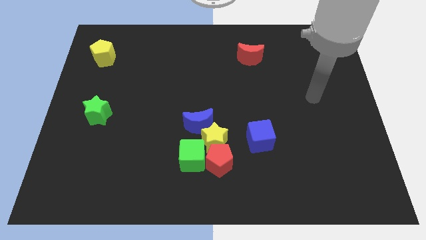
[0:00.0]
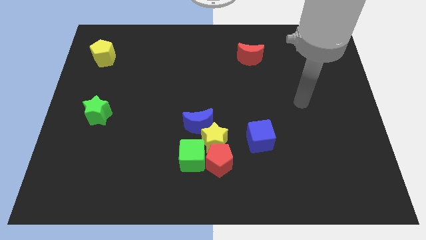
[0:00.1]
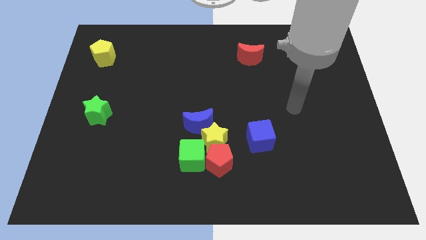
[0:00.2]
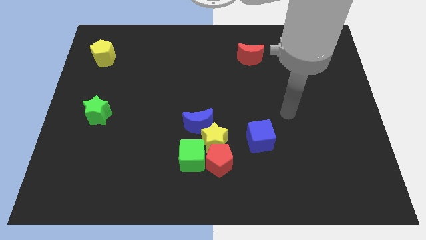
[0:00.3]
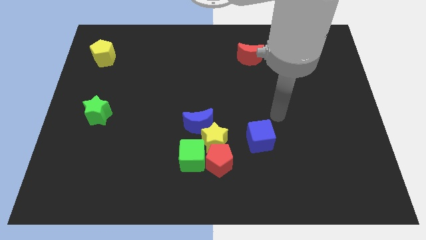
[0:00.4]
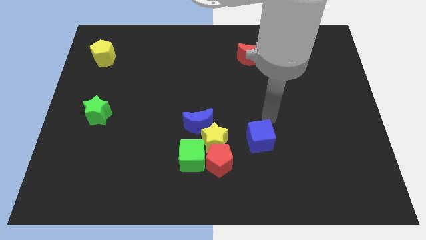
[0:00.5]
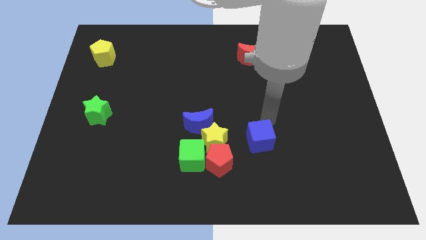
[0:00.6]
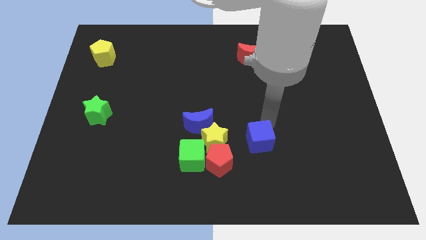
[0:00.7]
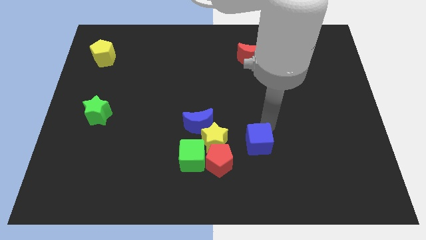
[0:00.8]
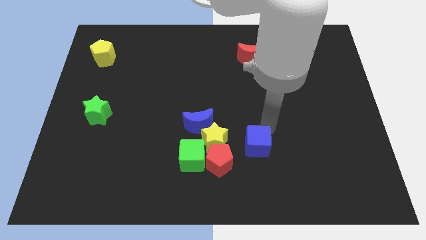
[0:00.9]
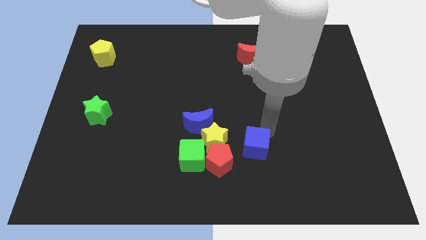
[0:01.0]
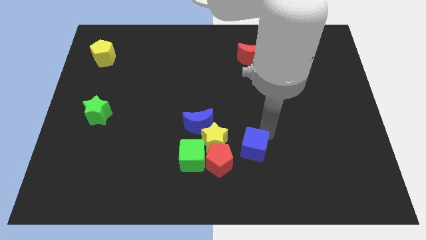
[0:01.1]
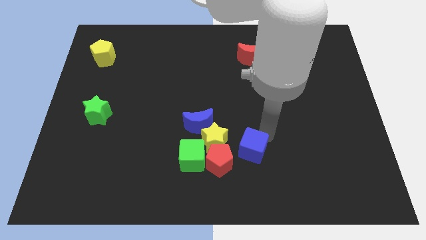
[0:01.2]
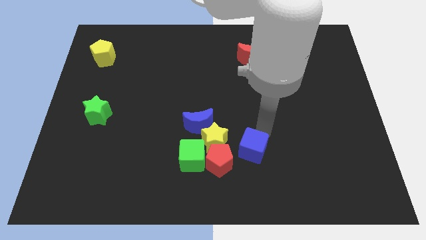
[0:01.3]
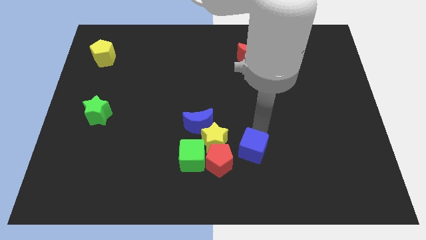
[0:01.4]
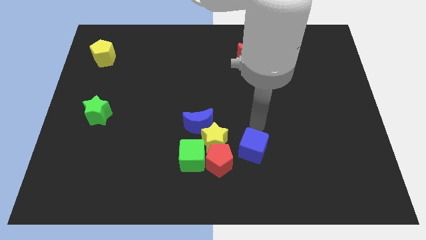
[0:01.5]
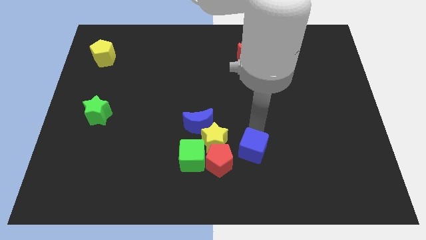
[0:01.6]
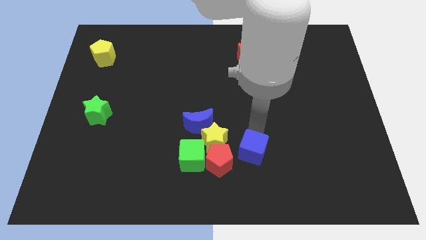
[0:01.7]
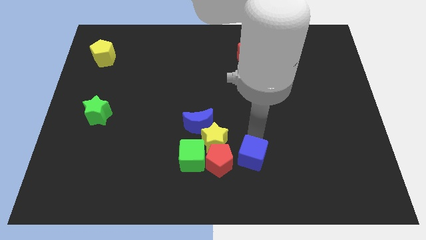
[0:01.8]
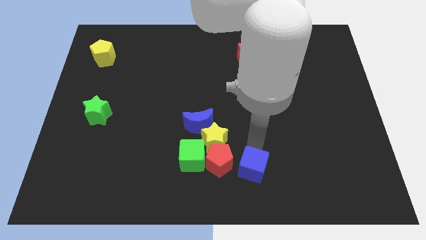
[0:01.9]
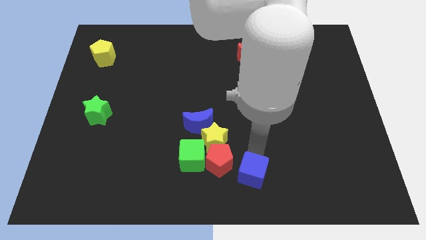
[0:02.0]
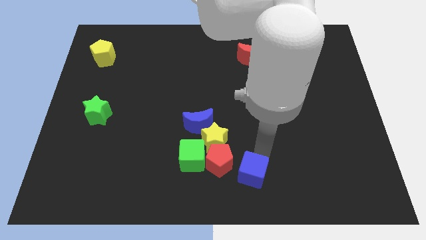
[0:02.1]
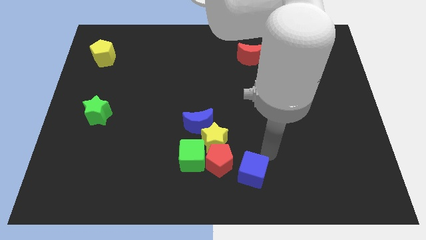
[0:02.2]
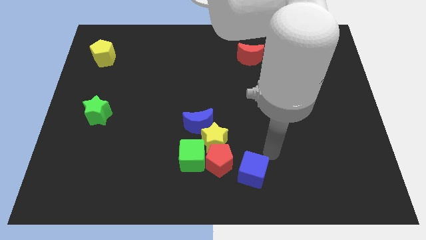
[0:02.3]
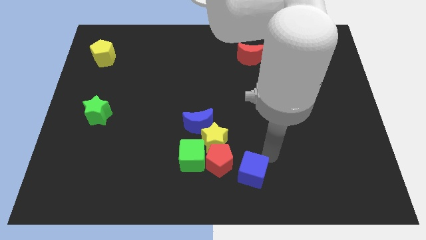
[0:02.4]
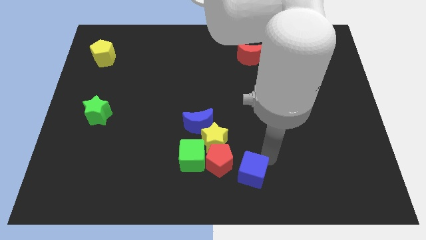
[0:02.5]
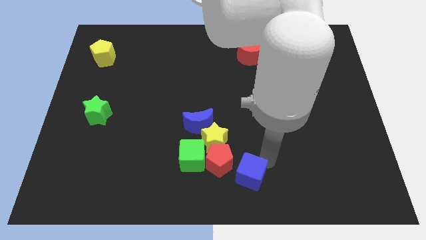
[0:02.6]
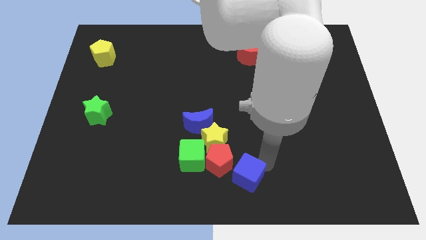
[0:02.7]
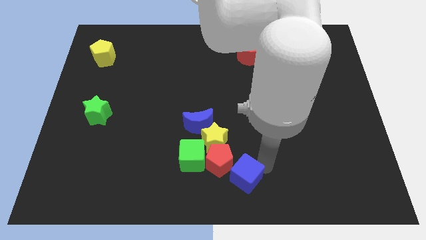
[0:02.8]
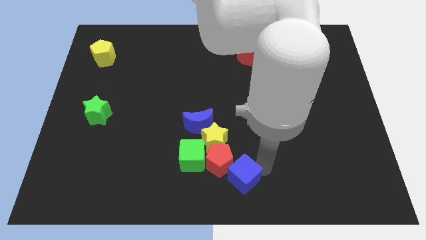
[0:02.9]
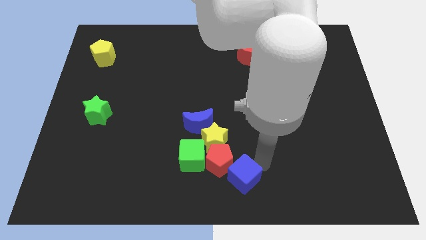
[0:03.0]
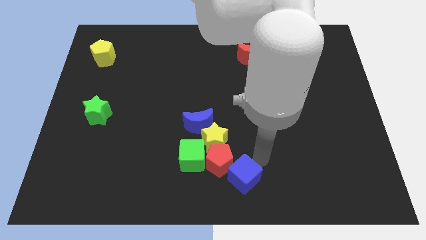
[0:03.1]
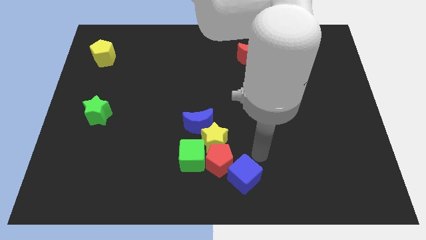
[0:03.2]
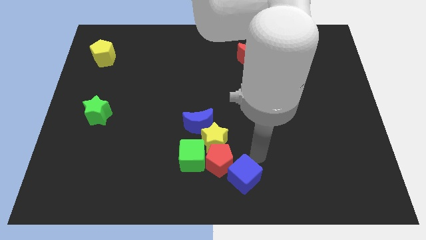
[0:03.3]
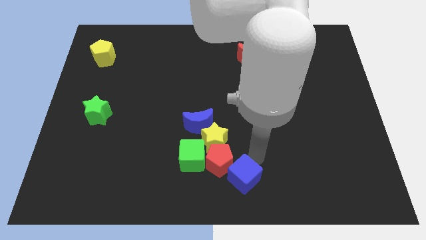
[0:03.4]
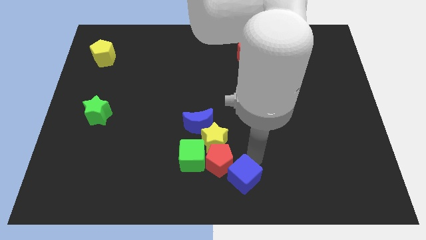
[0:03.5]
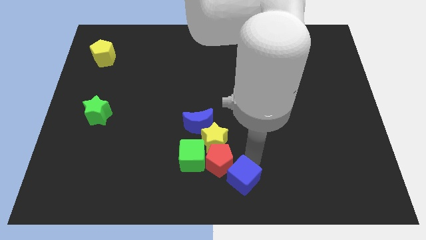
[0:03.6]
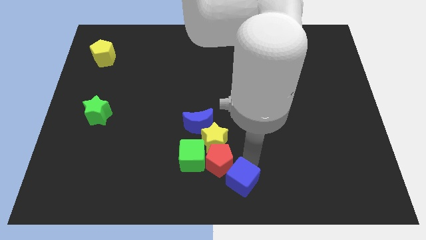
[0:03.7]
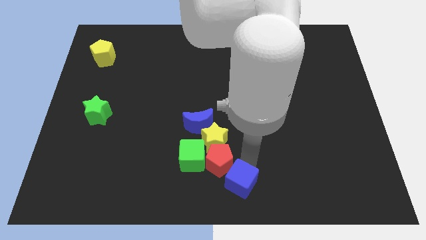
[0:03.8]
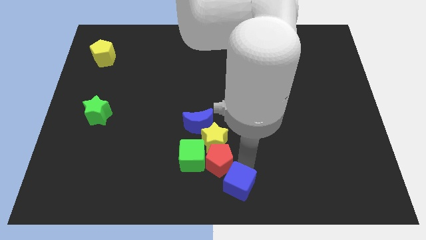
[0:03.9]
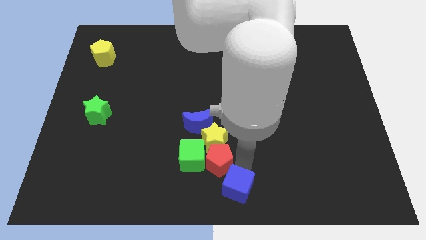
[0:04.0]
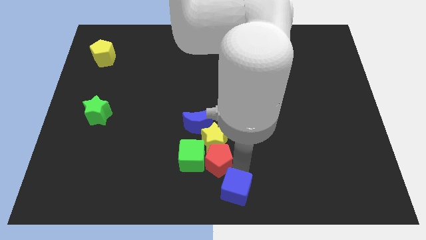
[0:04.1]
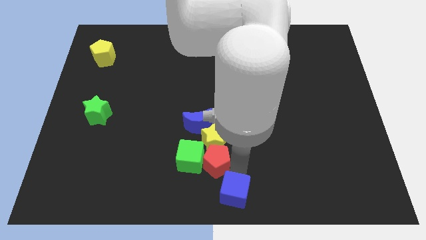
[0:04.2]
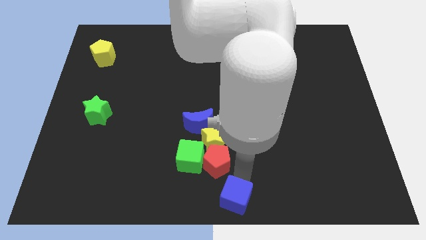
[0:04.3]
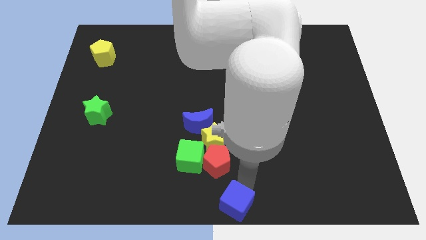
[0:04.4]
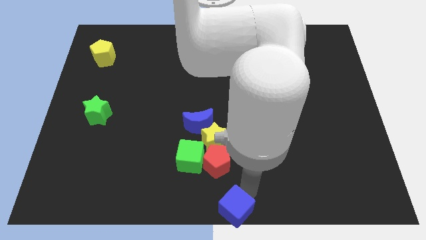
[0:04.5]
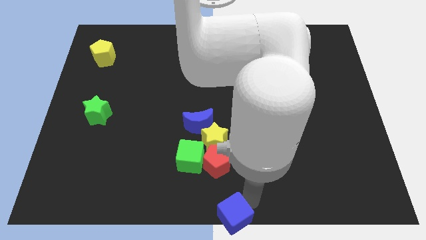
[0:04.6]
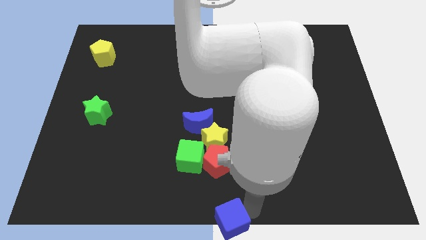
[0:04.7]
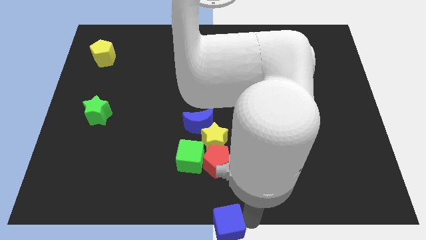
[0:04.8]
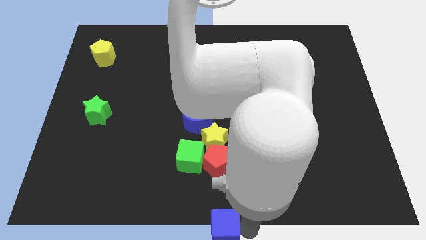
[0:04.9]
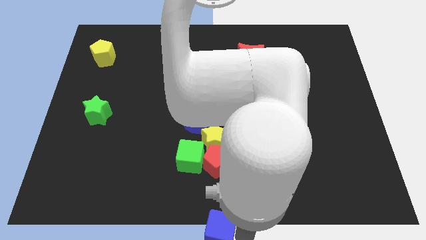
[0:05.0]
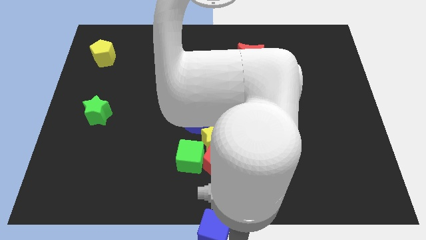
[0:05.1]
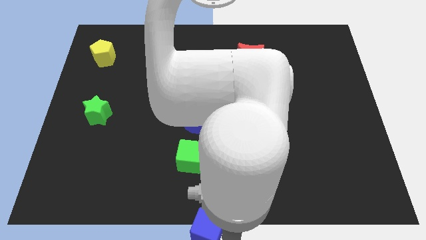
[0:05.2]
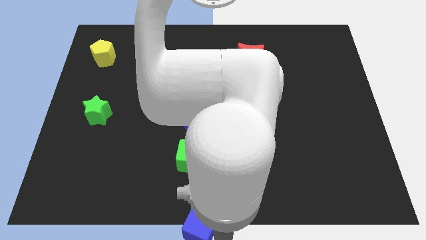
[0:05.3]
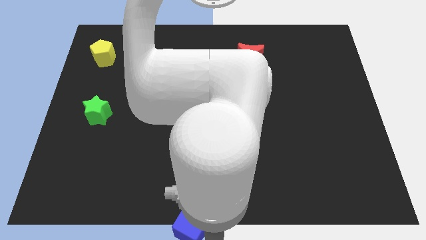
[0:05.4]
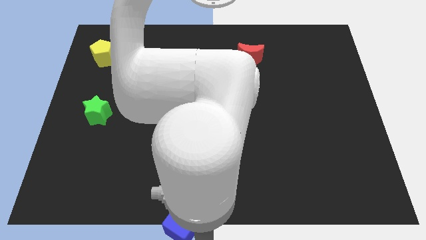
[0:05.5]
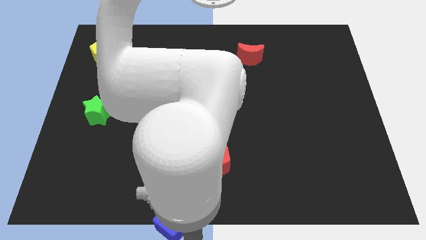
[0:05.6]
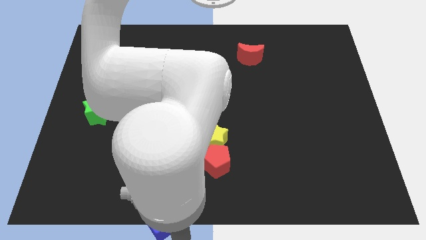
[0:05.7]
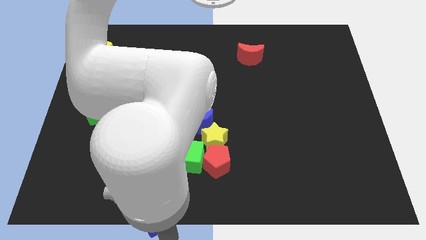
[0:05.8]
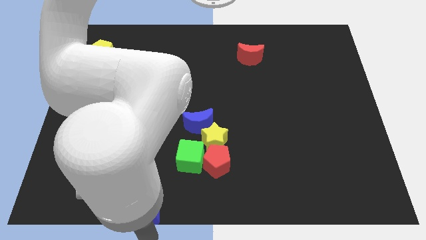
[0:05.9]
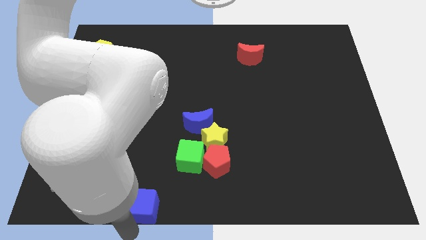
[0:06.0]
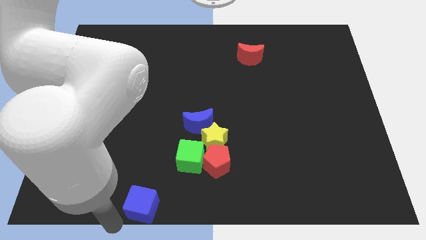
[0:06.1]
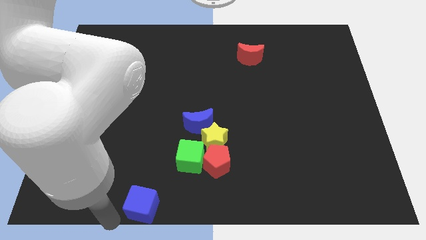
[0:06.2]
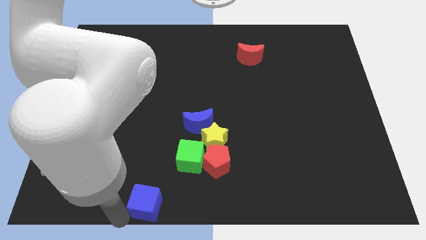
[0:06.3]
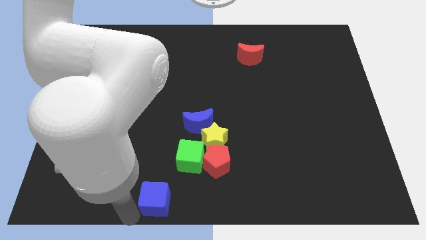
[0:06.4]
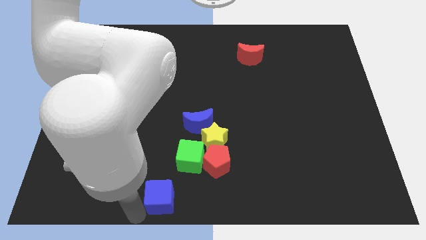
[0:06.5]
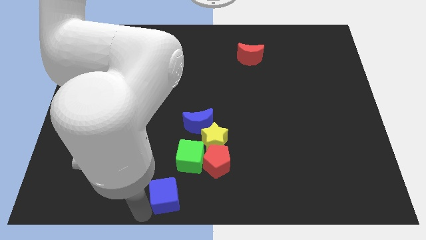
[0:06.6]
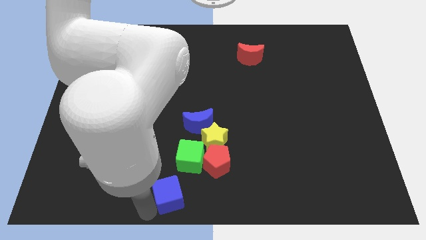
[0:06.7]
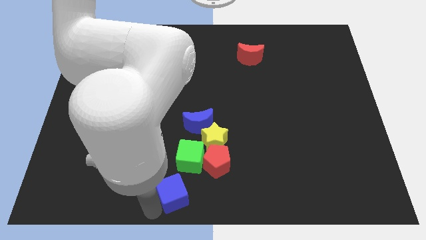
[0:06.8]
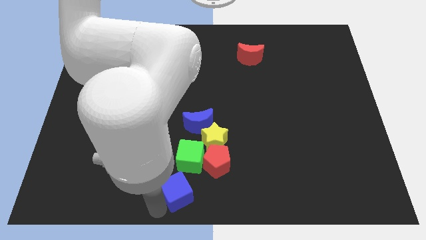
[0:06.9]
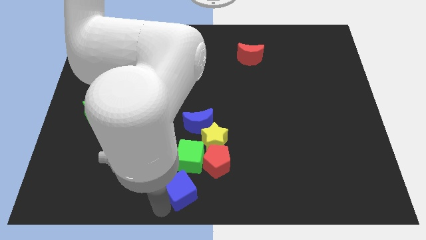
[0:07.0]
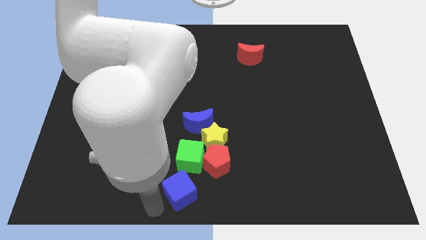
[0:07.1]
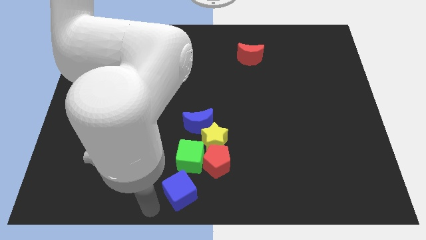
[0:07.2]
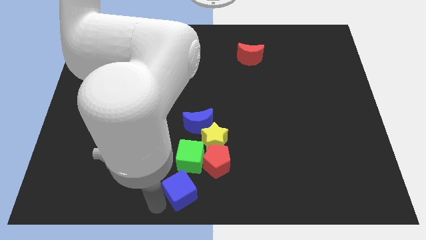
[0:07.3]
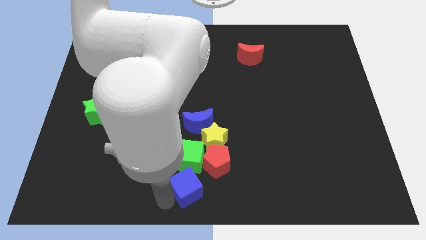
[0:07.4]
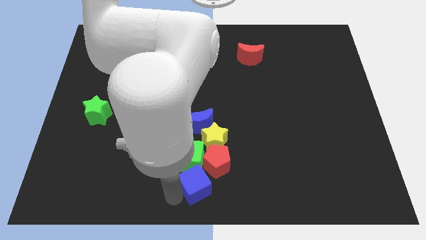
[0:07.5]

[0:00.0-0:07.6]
put the blue cube next to the green cube

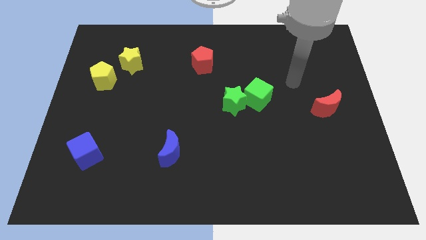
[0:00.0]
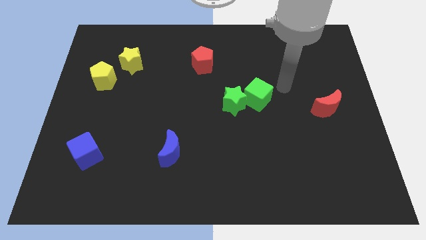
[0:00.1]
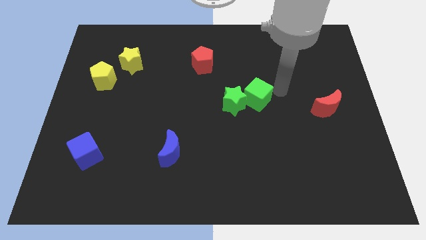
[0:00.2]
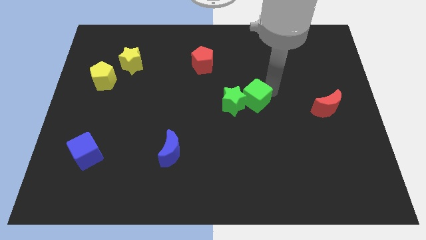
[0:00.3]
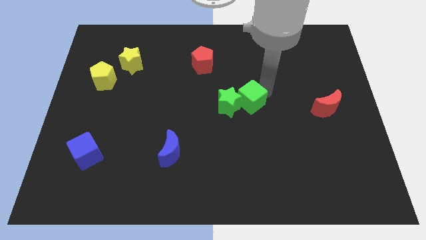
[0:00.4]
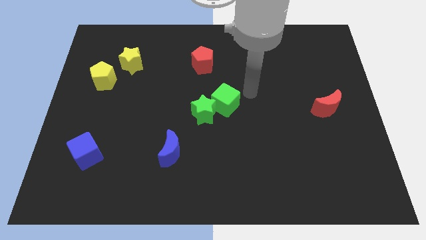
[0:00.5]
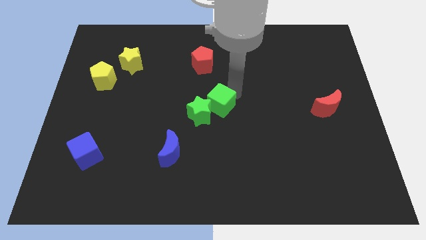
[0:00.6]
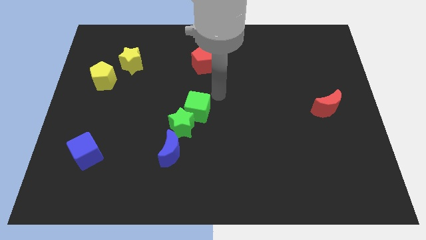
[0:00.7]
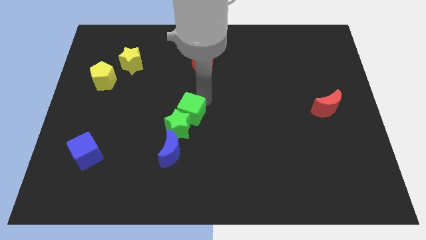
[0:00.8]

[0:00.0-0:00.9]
push the green star next to the blue moon
